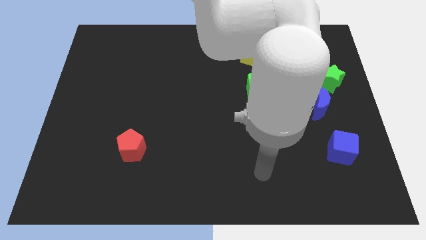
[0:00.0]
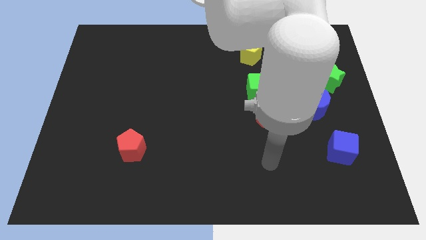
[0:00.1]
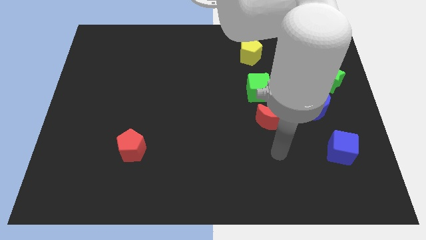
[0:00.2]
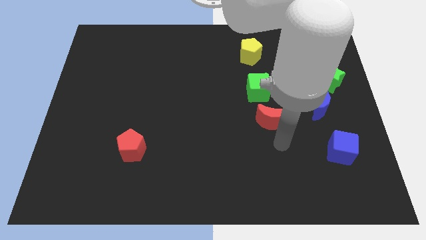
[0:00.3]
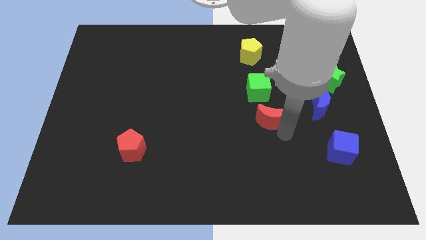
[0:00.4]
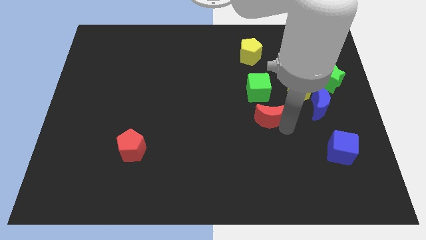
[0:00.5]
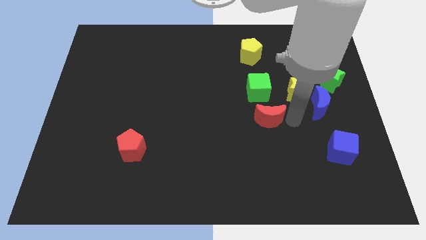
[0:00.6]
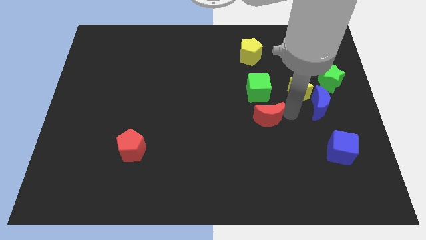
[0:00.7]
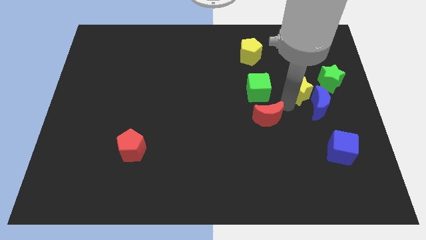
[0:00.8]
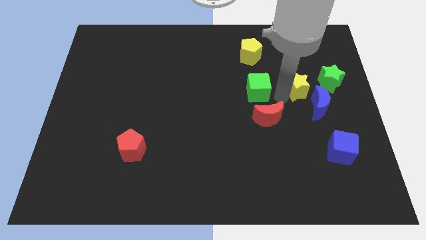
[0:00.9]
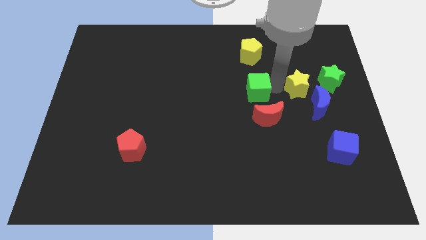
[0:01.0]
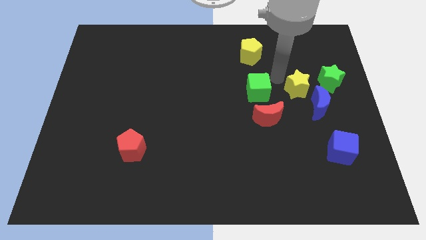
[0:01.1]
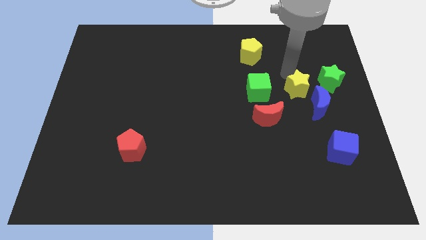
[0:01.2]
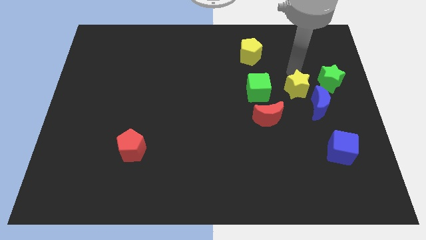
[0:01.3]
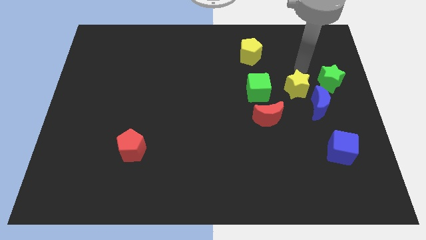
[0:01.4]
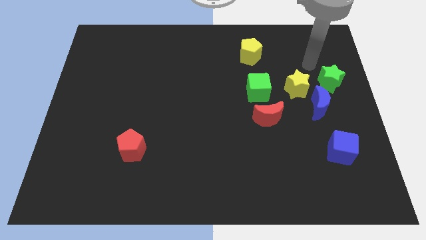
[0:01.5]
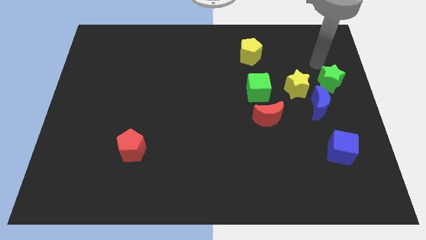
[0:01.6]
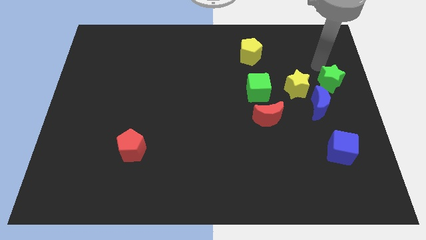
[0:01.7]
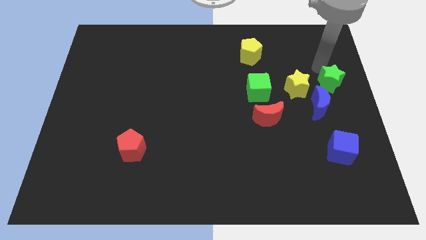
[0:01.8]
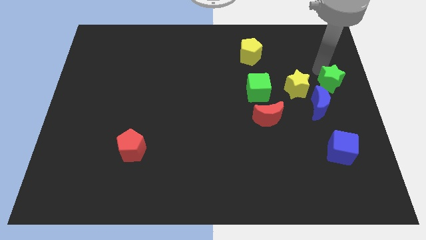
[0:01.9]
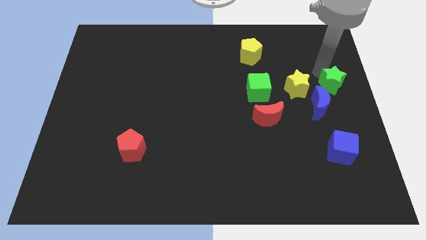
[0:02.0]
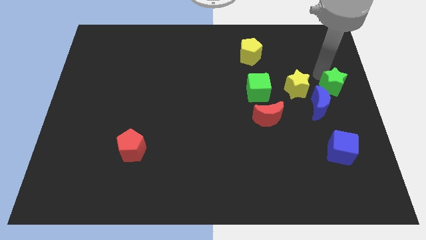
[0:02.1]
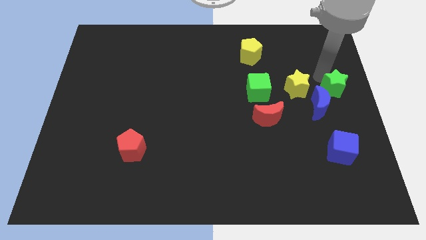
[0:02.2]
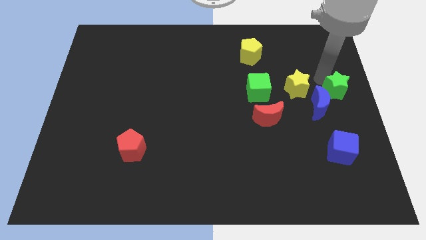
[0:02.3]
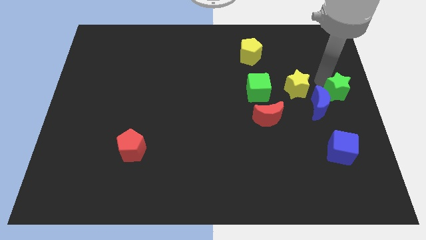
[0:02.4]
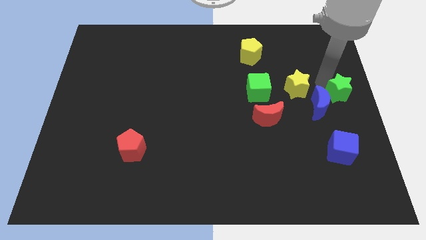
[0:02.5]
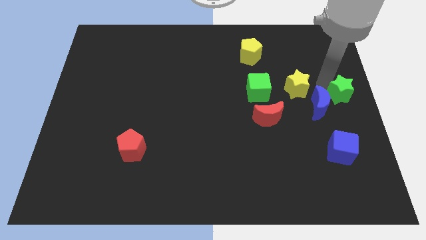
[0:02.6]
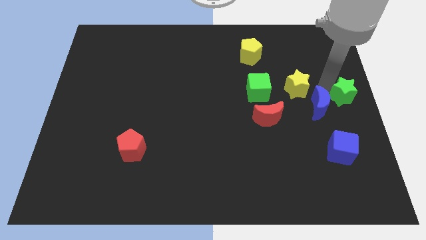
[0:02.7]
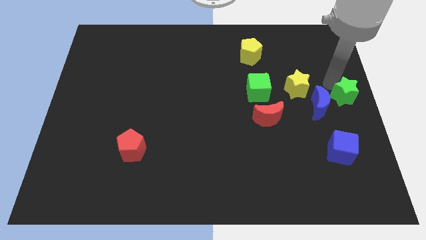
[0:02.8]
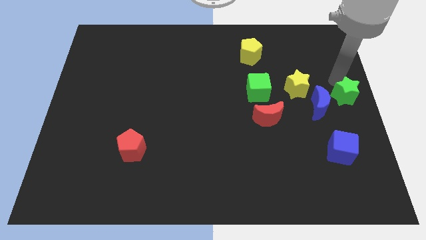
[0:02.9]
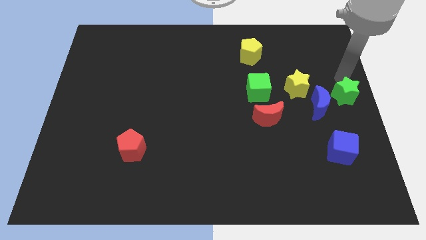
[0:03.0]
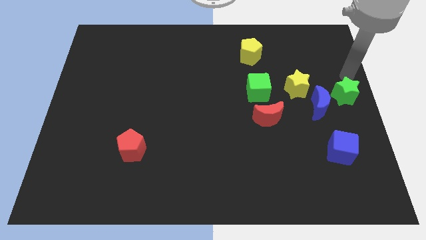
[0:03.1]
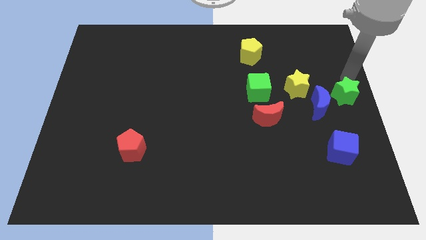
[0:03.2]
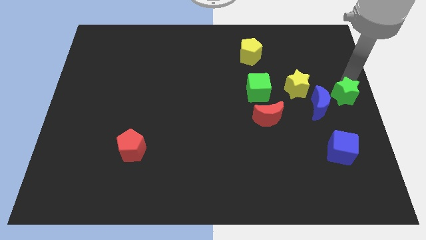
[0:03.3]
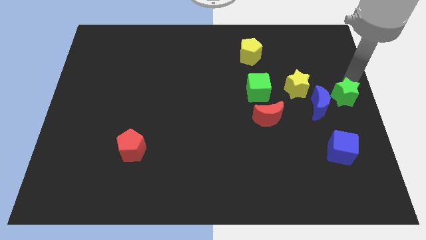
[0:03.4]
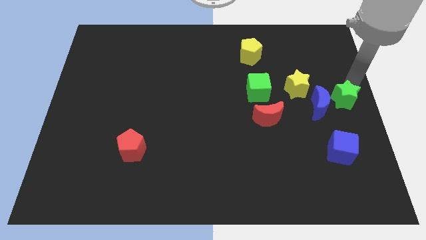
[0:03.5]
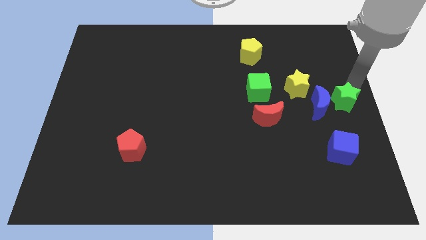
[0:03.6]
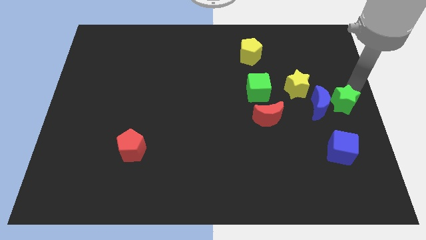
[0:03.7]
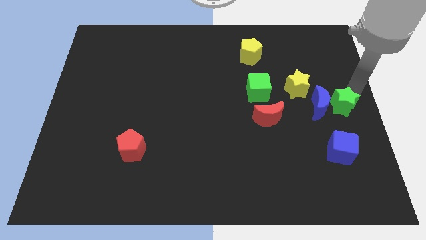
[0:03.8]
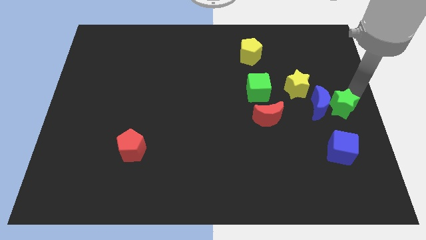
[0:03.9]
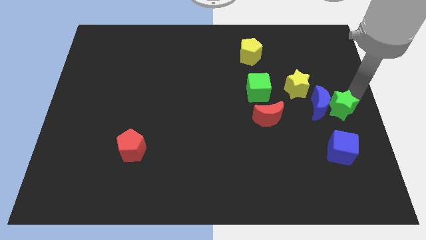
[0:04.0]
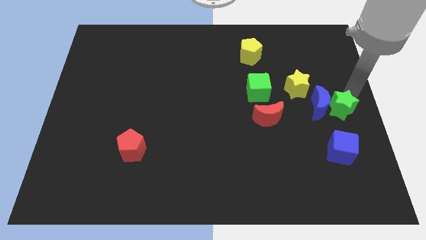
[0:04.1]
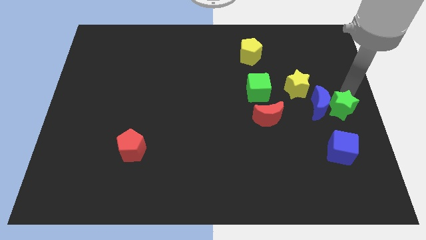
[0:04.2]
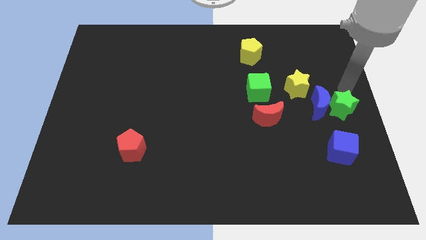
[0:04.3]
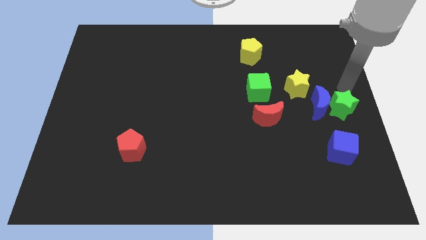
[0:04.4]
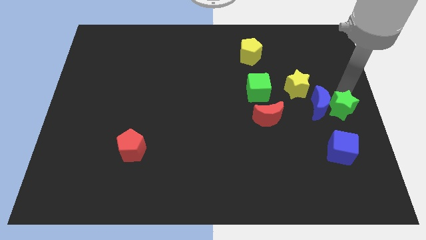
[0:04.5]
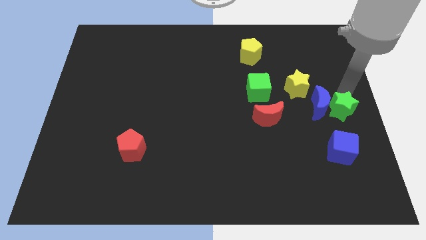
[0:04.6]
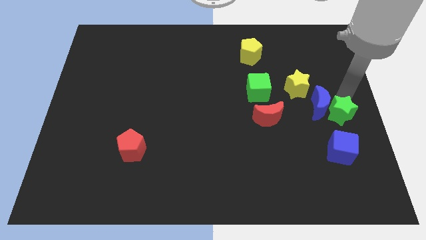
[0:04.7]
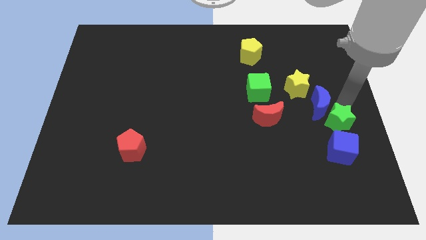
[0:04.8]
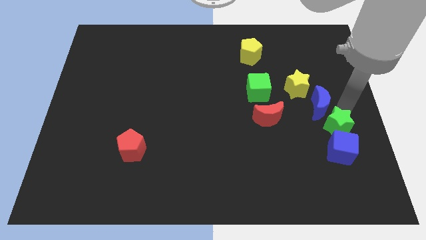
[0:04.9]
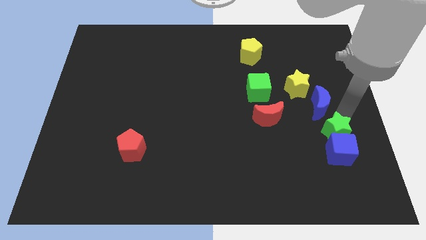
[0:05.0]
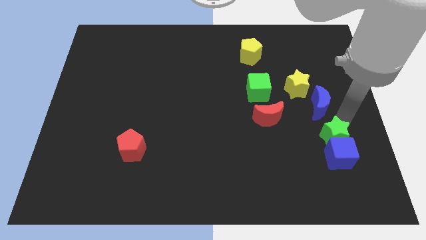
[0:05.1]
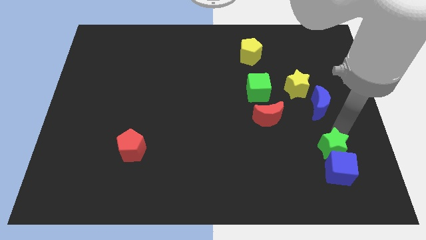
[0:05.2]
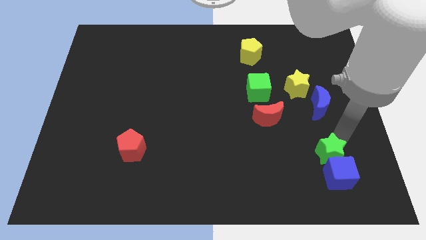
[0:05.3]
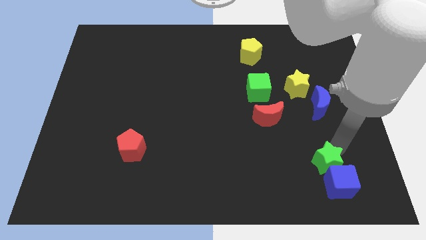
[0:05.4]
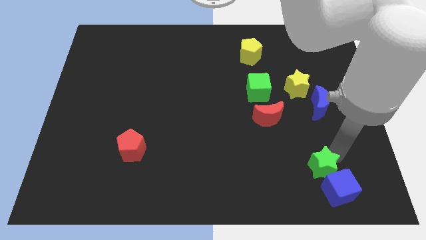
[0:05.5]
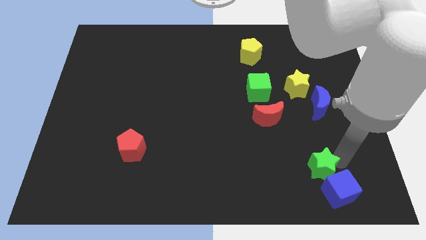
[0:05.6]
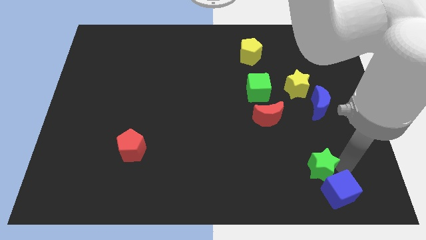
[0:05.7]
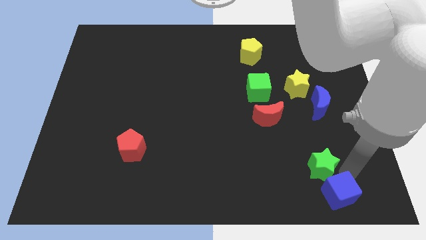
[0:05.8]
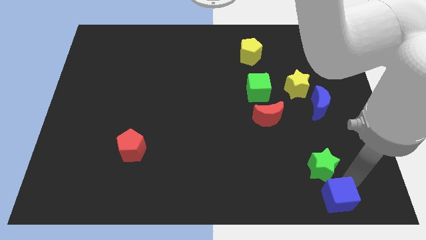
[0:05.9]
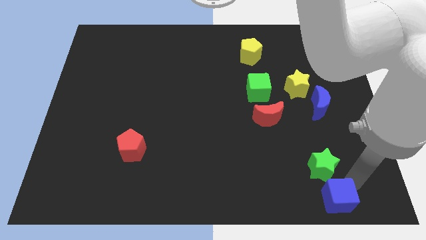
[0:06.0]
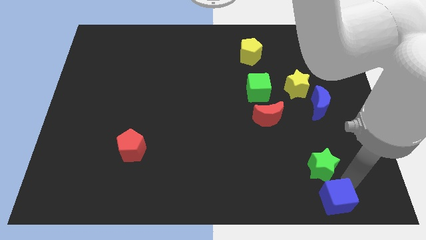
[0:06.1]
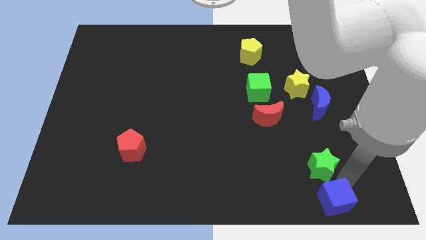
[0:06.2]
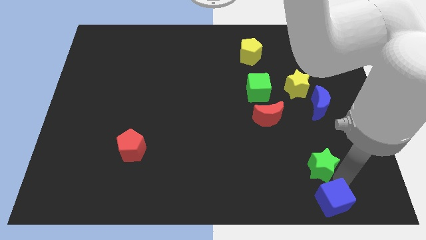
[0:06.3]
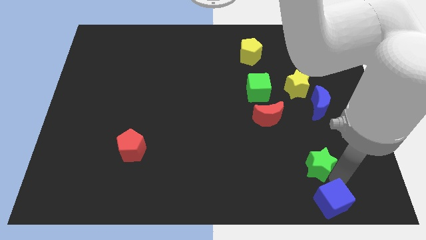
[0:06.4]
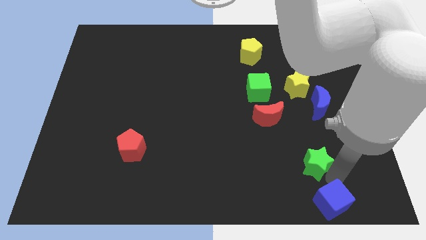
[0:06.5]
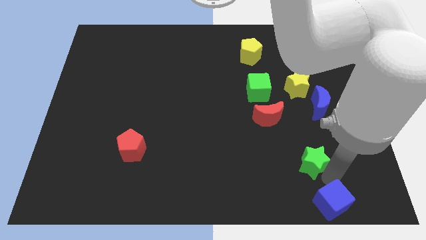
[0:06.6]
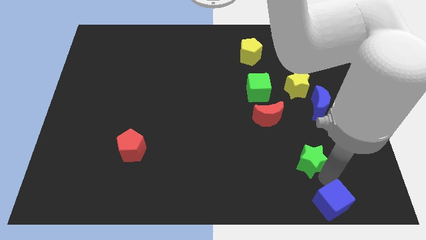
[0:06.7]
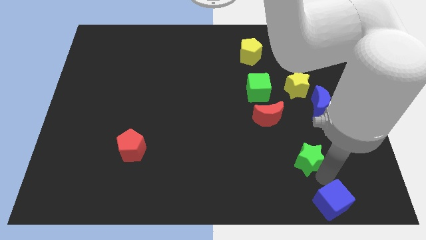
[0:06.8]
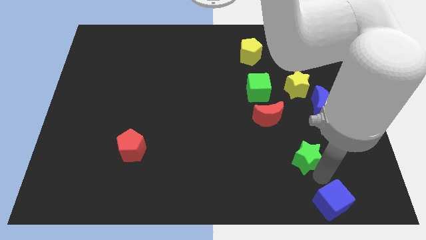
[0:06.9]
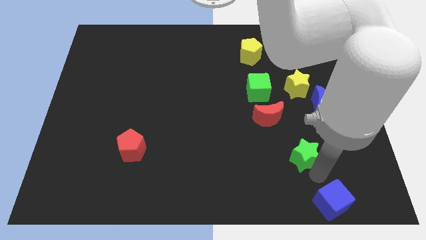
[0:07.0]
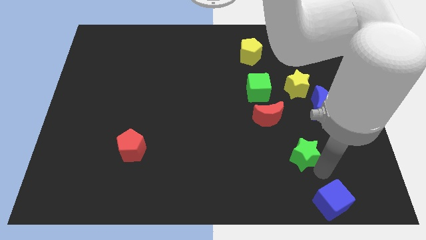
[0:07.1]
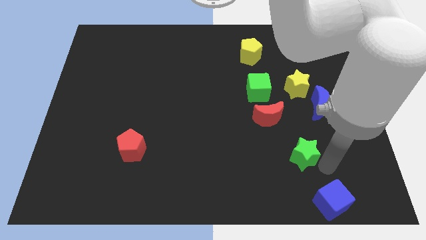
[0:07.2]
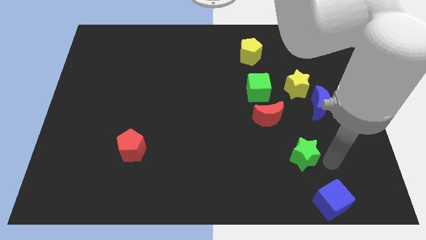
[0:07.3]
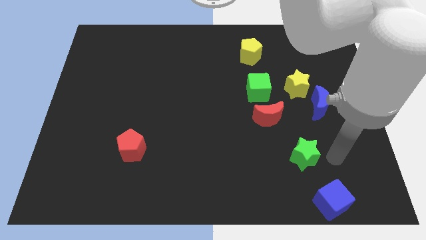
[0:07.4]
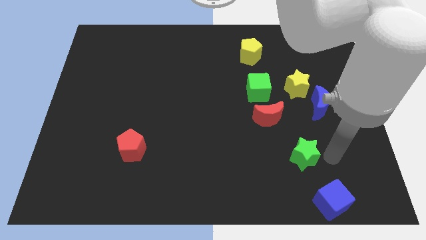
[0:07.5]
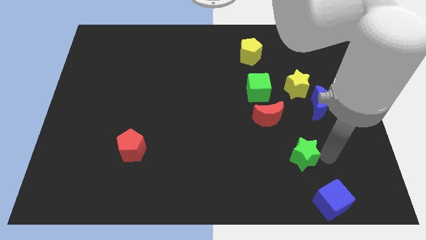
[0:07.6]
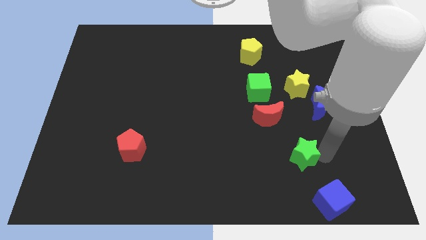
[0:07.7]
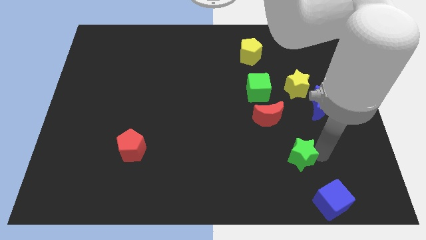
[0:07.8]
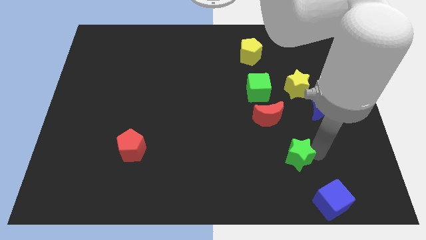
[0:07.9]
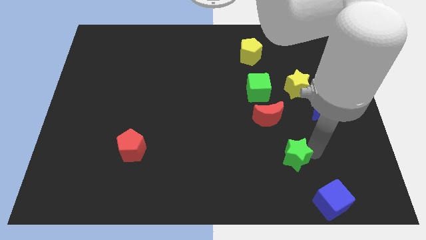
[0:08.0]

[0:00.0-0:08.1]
push the green star below the red moon
